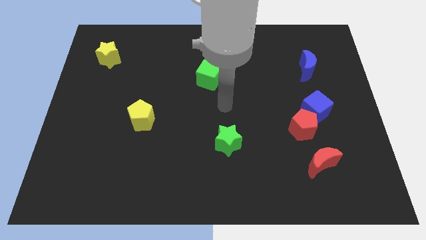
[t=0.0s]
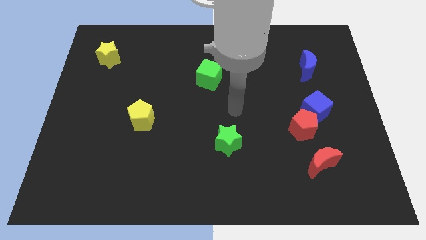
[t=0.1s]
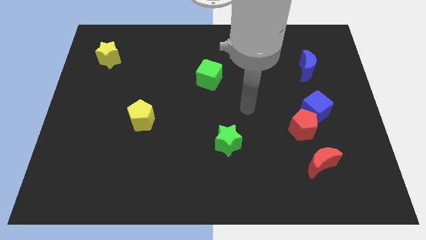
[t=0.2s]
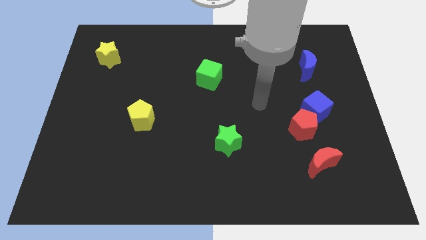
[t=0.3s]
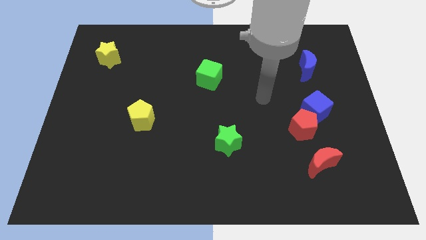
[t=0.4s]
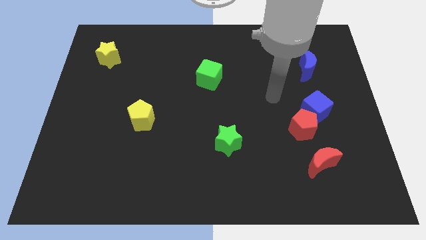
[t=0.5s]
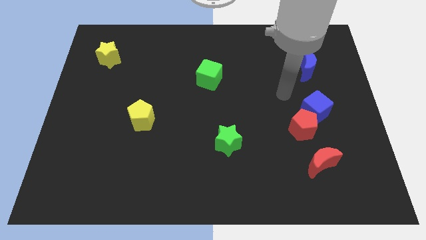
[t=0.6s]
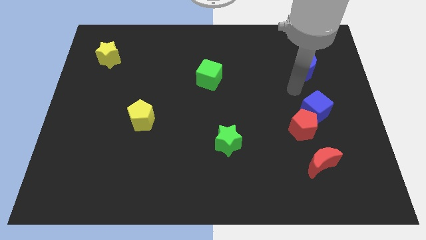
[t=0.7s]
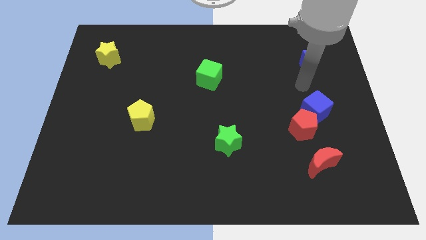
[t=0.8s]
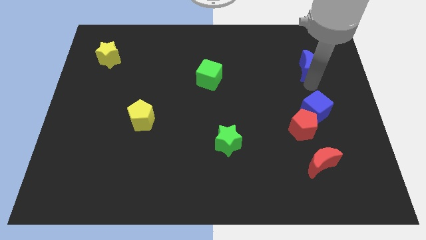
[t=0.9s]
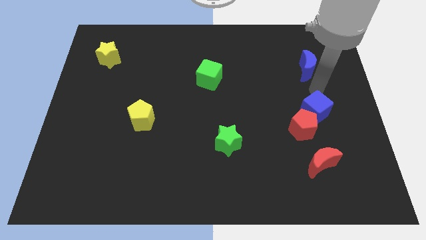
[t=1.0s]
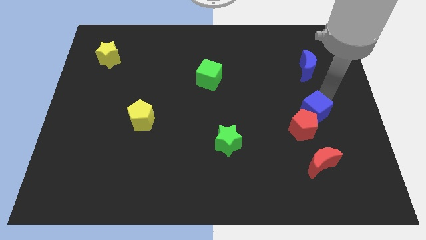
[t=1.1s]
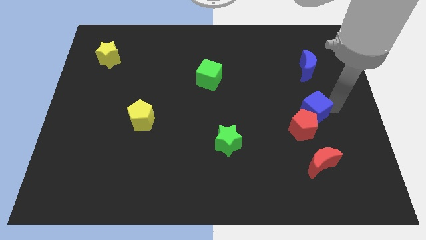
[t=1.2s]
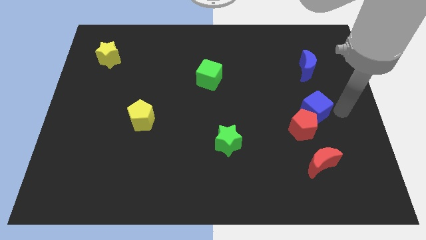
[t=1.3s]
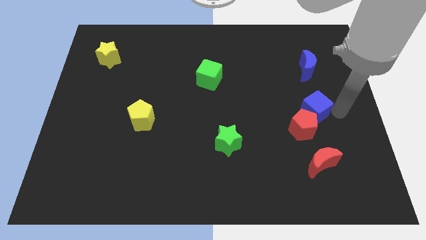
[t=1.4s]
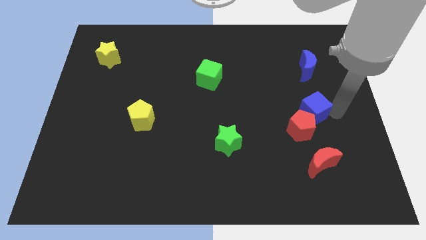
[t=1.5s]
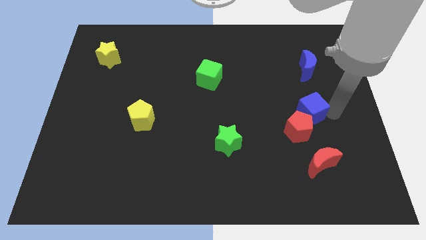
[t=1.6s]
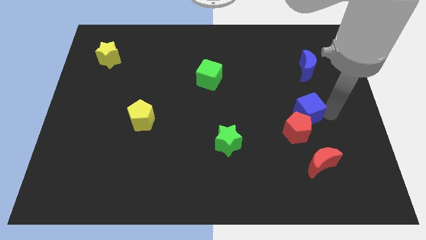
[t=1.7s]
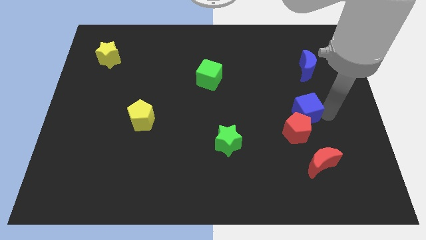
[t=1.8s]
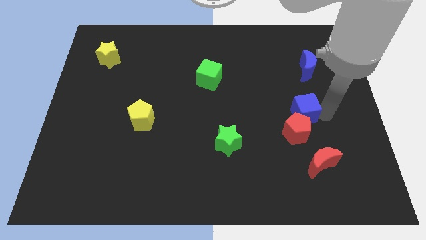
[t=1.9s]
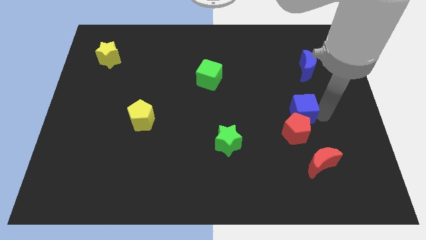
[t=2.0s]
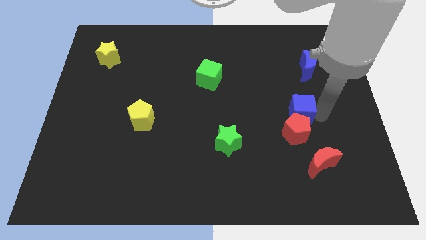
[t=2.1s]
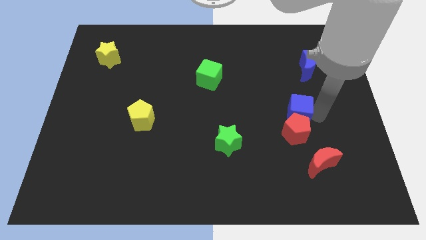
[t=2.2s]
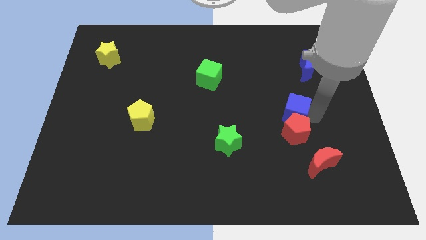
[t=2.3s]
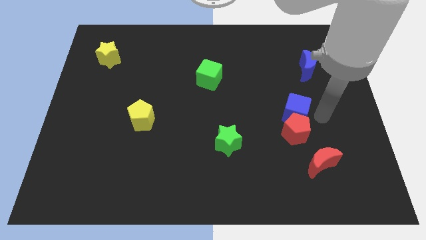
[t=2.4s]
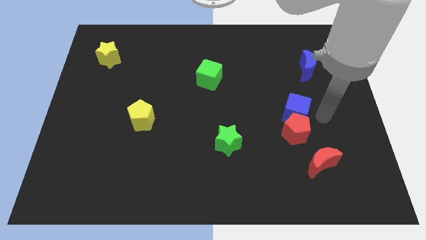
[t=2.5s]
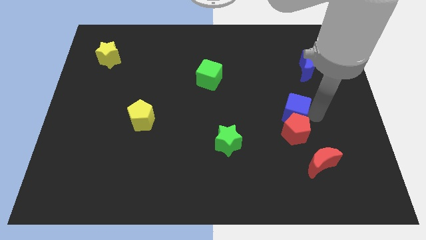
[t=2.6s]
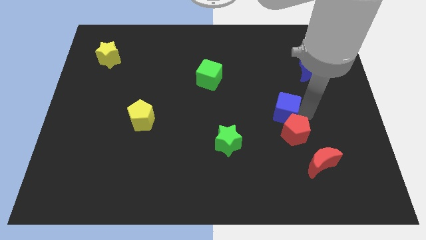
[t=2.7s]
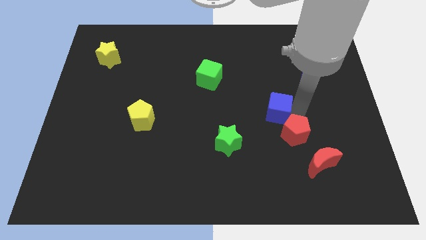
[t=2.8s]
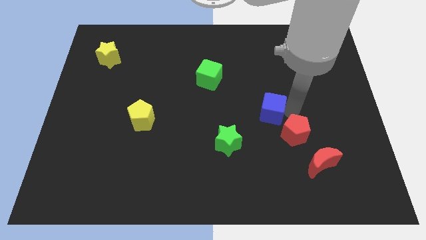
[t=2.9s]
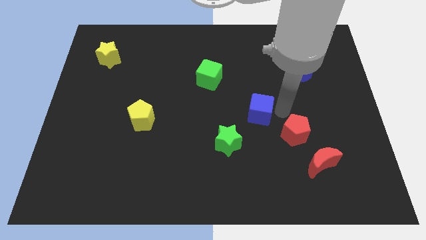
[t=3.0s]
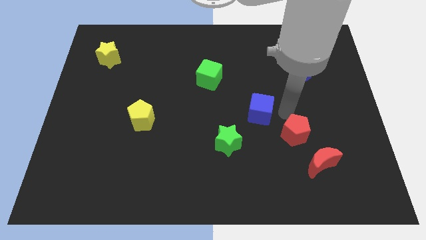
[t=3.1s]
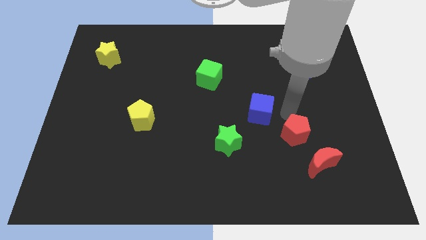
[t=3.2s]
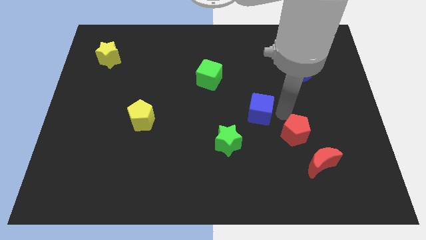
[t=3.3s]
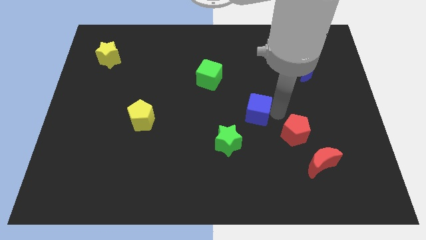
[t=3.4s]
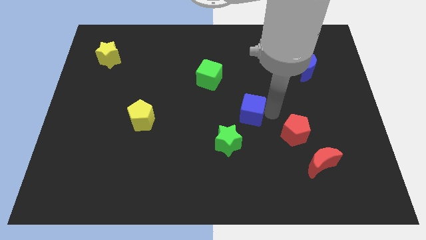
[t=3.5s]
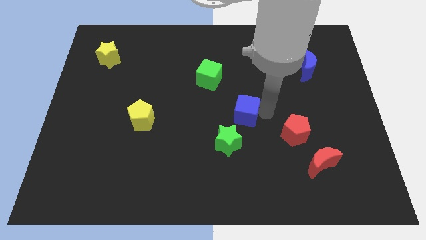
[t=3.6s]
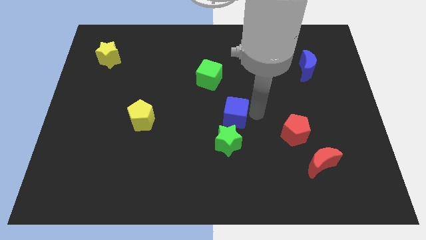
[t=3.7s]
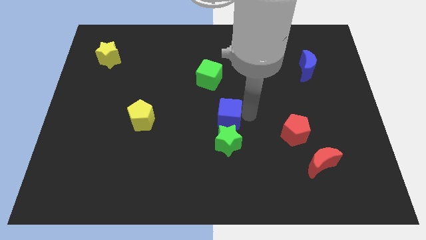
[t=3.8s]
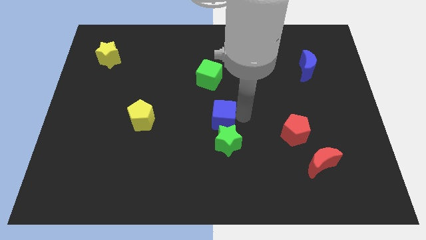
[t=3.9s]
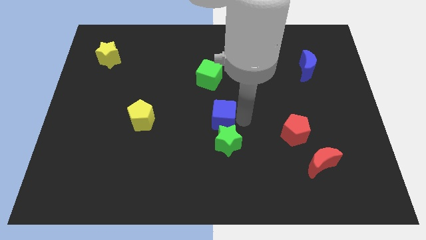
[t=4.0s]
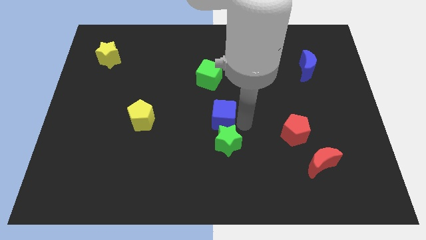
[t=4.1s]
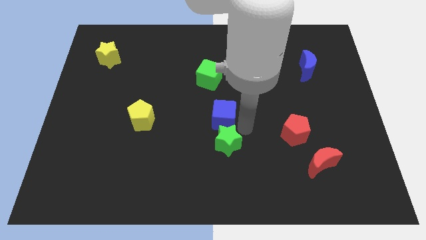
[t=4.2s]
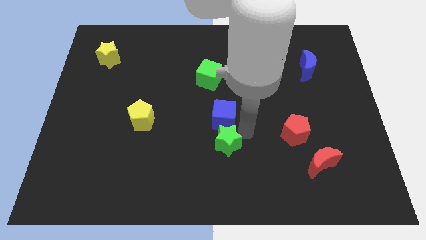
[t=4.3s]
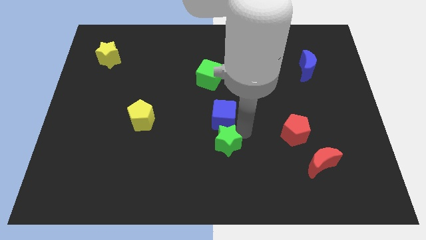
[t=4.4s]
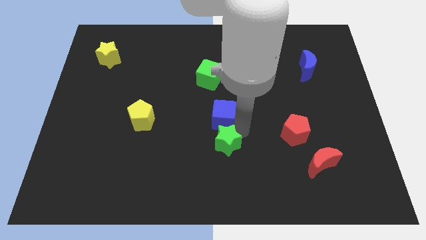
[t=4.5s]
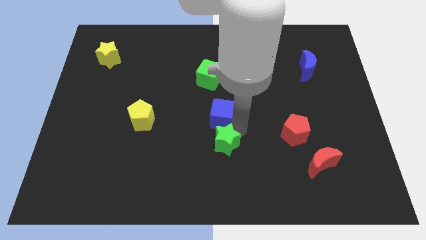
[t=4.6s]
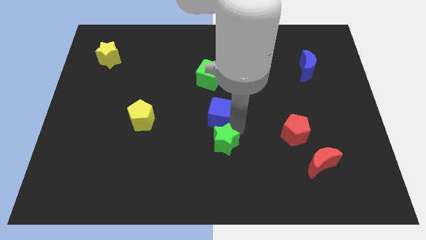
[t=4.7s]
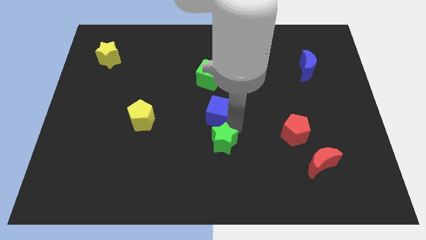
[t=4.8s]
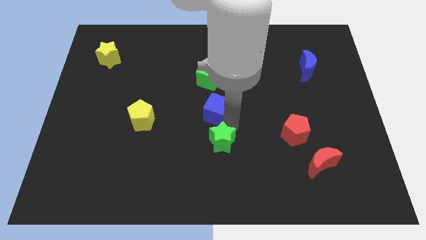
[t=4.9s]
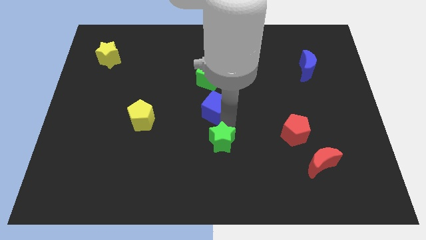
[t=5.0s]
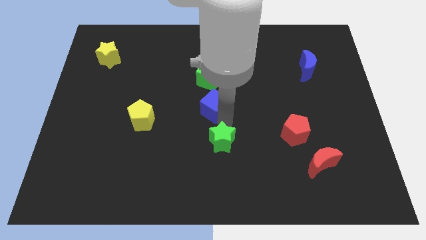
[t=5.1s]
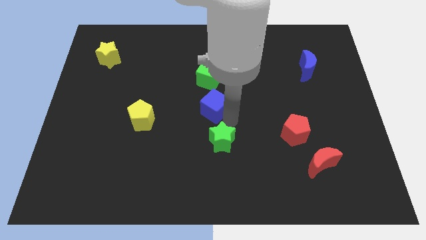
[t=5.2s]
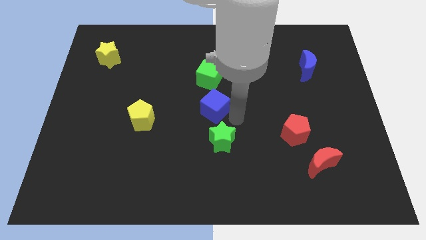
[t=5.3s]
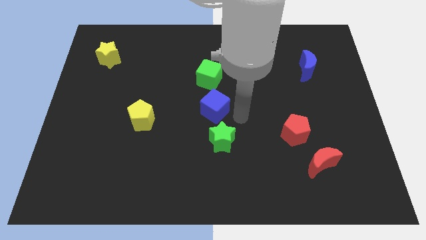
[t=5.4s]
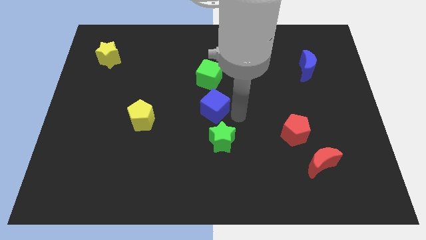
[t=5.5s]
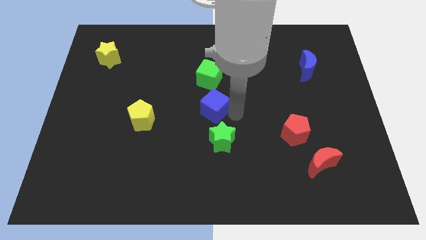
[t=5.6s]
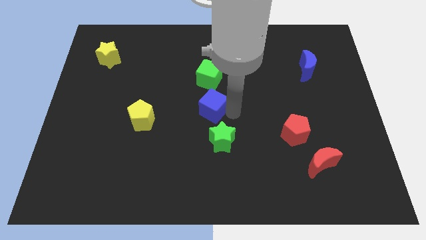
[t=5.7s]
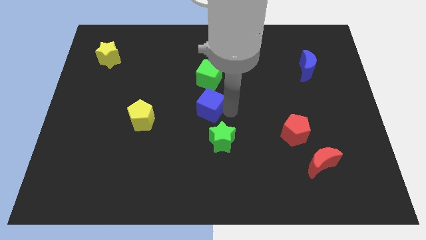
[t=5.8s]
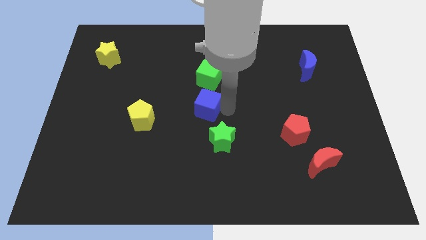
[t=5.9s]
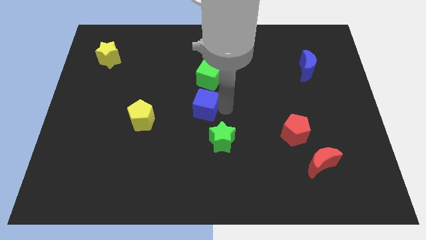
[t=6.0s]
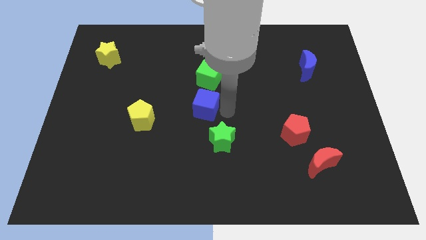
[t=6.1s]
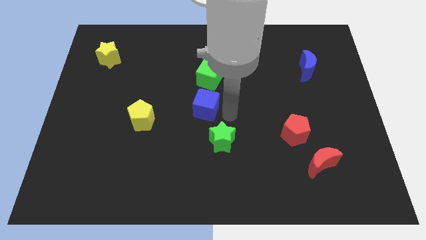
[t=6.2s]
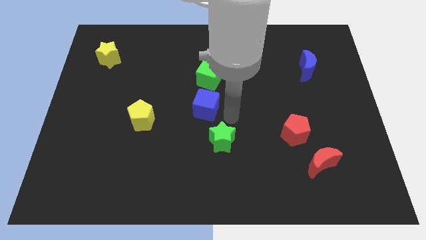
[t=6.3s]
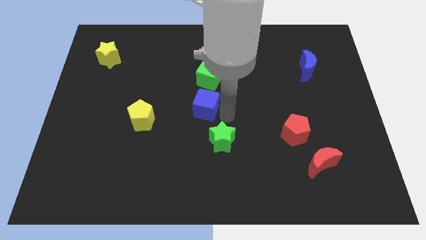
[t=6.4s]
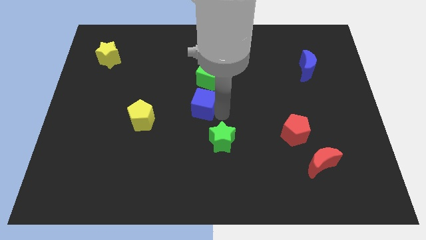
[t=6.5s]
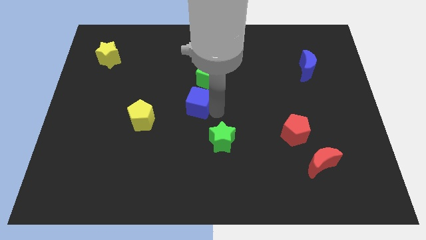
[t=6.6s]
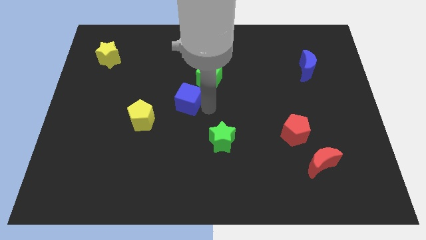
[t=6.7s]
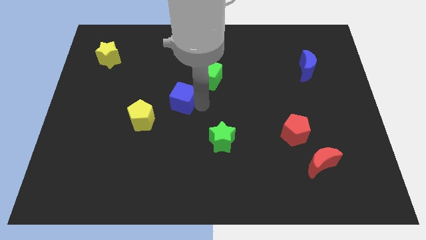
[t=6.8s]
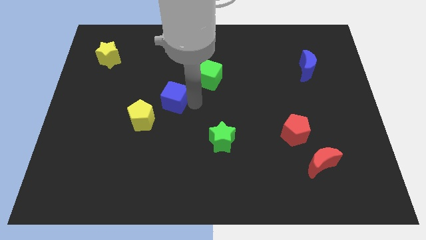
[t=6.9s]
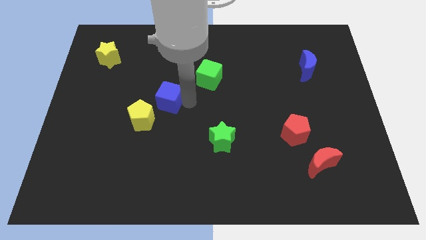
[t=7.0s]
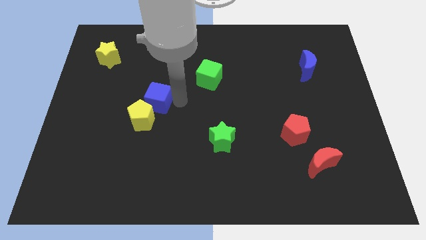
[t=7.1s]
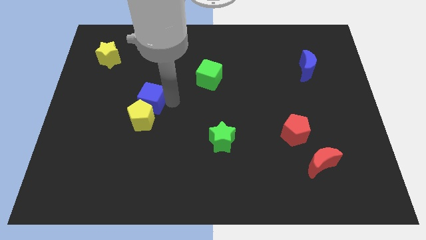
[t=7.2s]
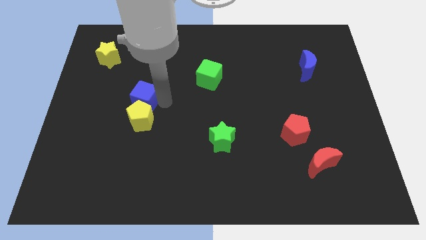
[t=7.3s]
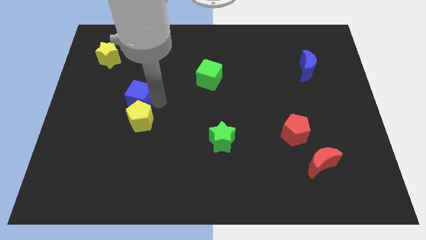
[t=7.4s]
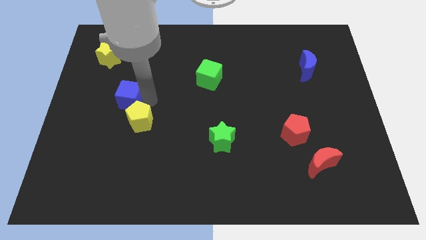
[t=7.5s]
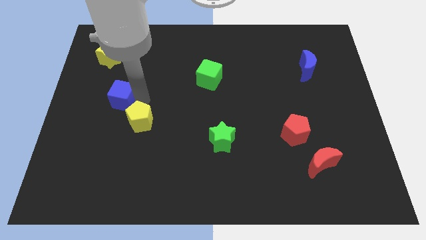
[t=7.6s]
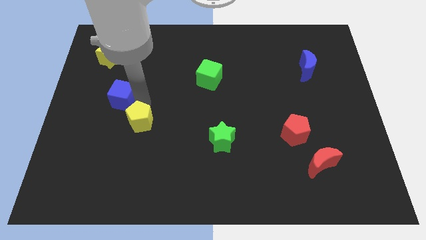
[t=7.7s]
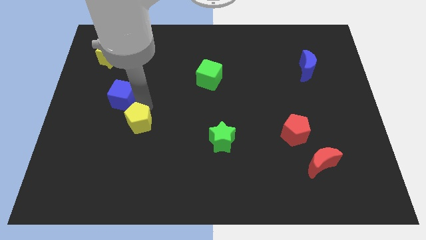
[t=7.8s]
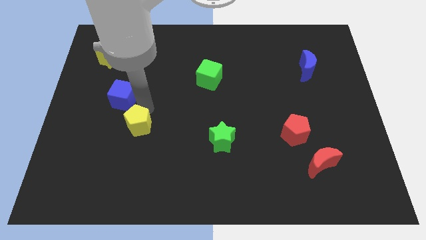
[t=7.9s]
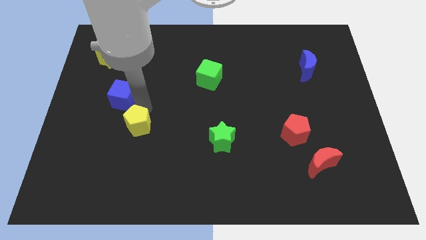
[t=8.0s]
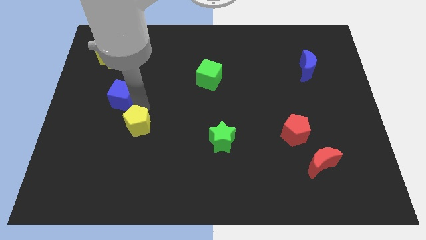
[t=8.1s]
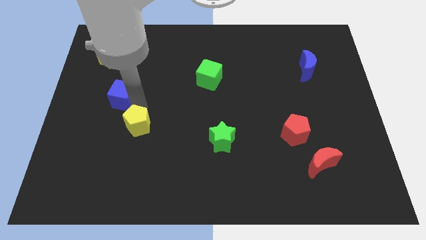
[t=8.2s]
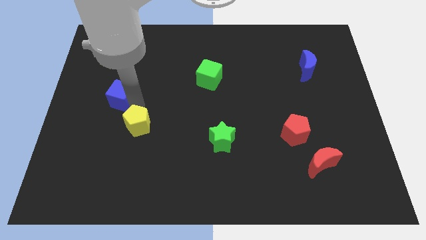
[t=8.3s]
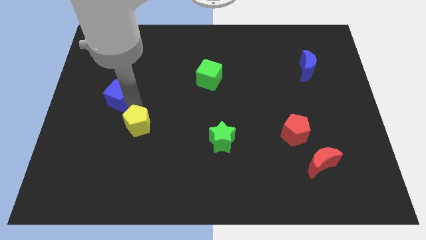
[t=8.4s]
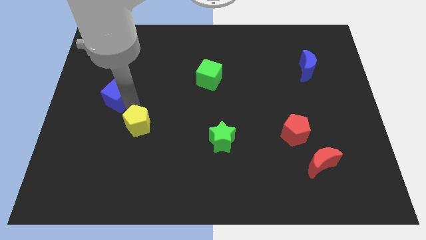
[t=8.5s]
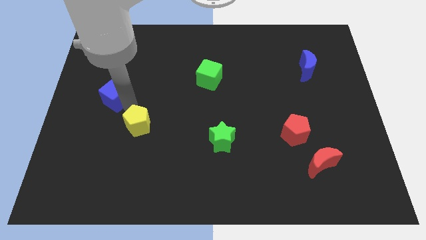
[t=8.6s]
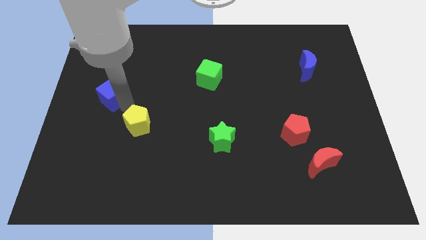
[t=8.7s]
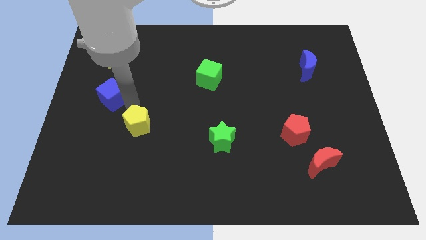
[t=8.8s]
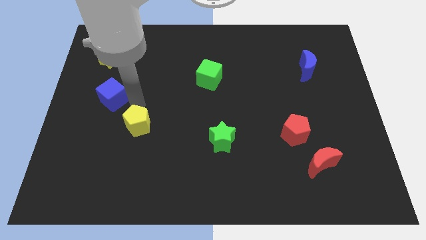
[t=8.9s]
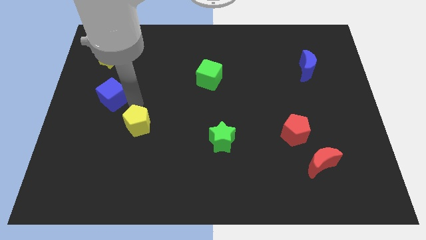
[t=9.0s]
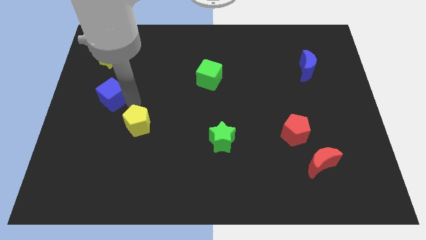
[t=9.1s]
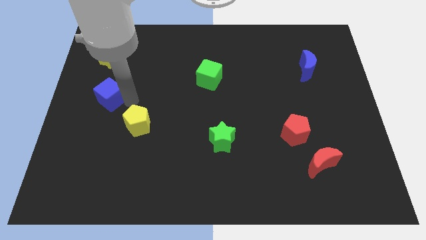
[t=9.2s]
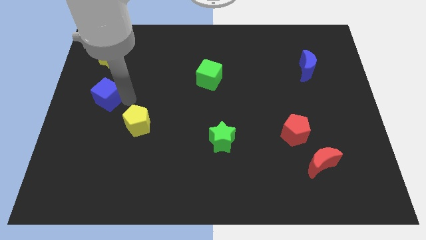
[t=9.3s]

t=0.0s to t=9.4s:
slide the blue cube to the left side of the board
